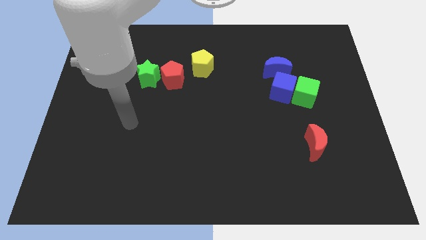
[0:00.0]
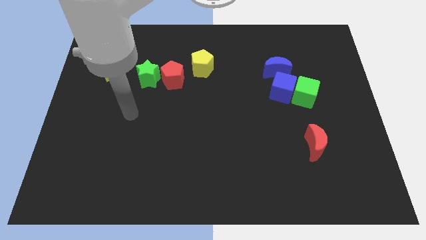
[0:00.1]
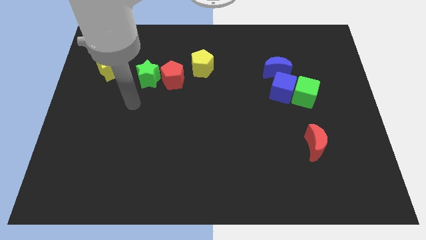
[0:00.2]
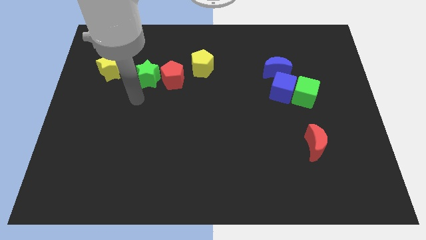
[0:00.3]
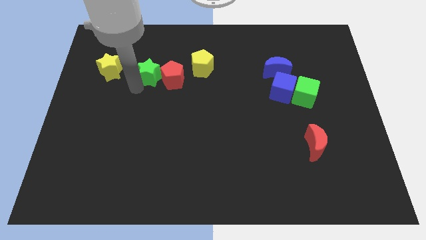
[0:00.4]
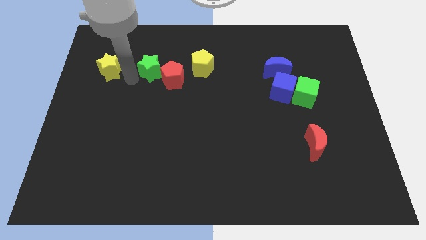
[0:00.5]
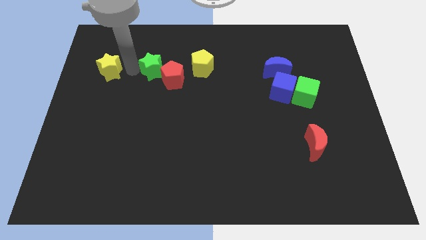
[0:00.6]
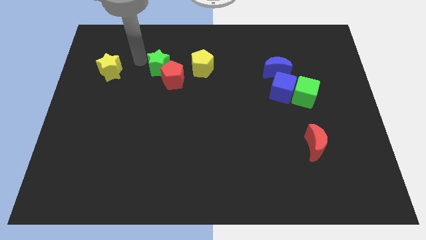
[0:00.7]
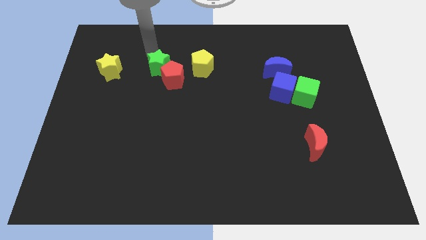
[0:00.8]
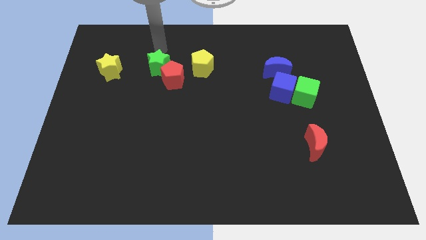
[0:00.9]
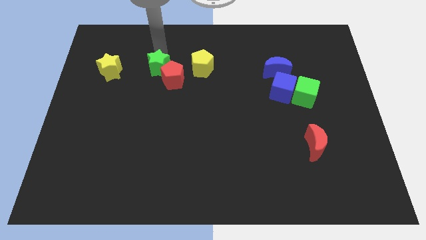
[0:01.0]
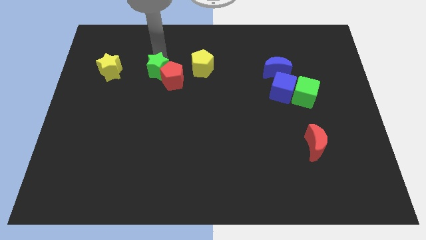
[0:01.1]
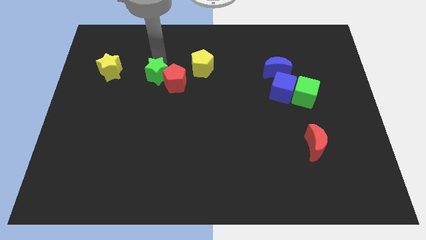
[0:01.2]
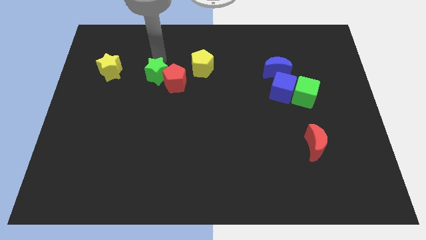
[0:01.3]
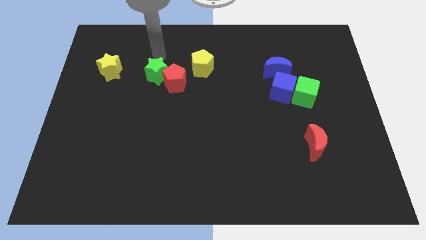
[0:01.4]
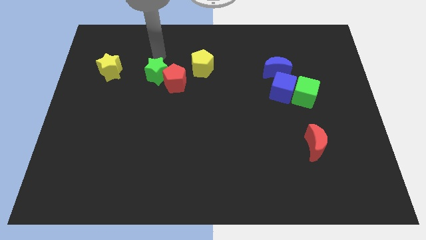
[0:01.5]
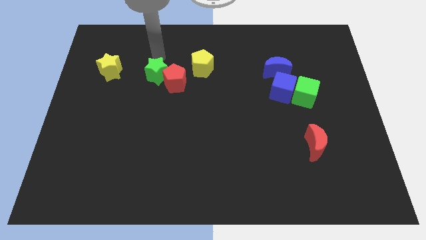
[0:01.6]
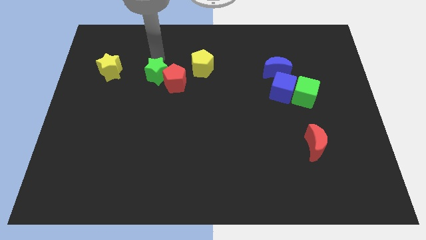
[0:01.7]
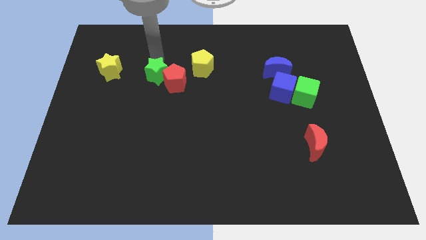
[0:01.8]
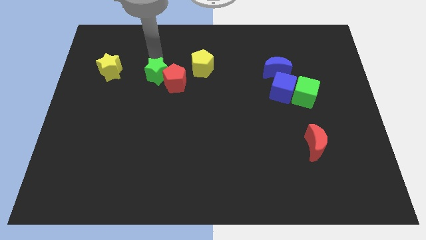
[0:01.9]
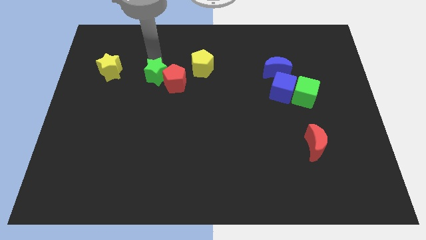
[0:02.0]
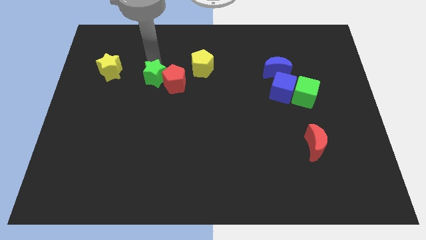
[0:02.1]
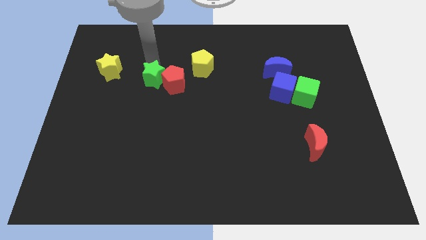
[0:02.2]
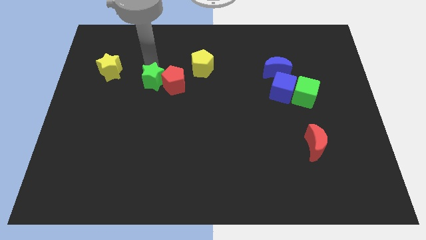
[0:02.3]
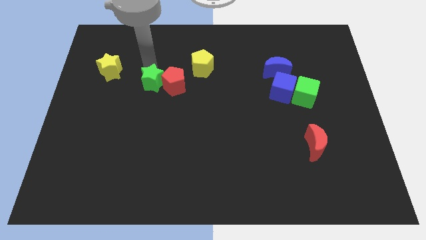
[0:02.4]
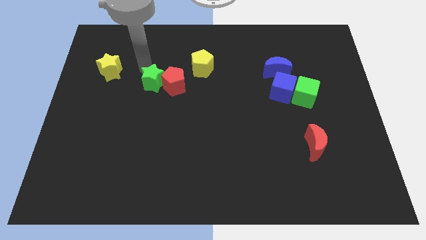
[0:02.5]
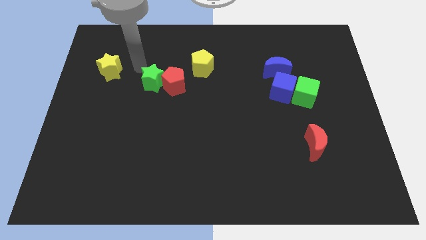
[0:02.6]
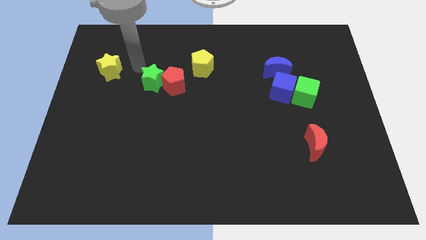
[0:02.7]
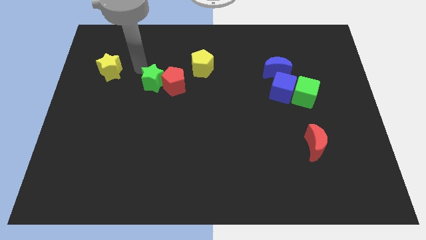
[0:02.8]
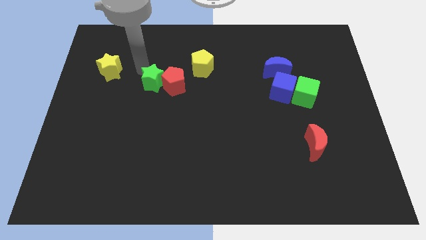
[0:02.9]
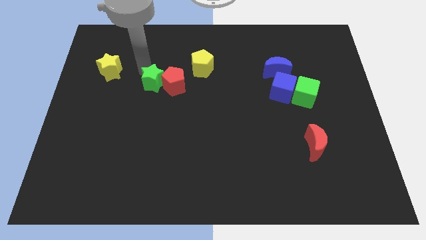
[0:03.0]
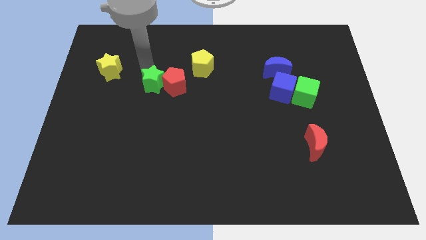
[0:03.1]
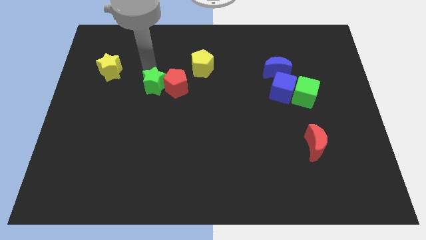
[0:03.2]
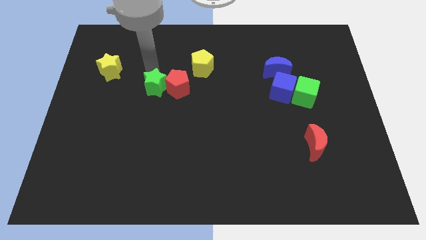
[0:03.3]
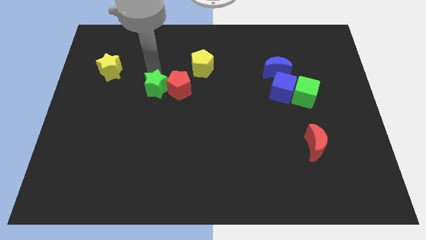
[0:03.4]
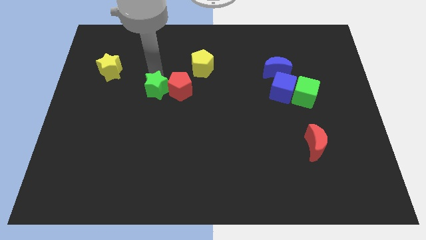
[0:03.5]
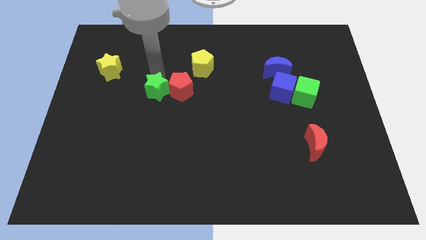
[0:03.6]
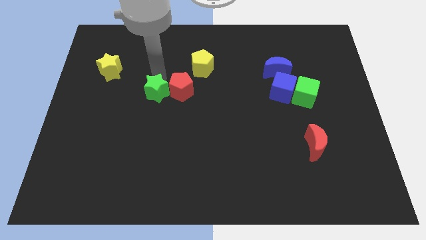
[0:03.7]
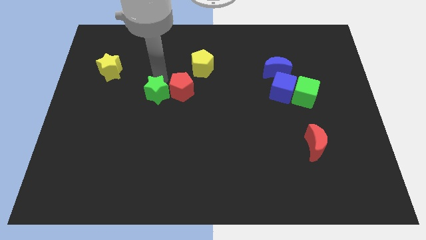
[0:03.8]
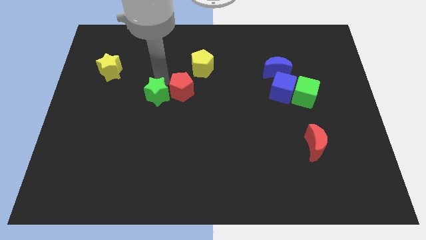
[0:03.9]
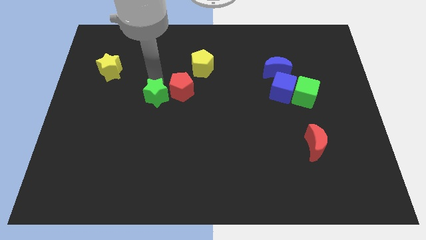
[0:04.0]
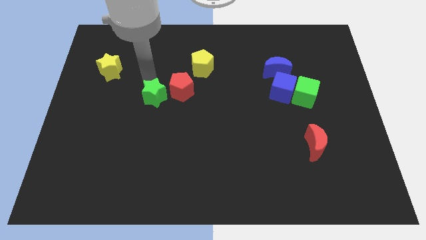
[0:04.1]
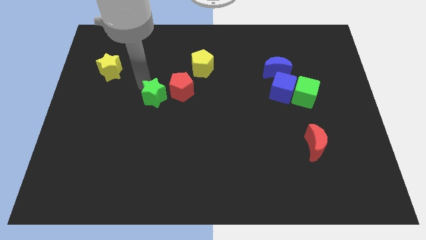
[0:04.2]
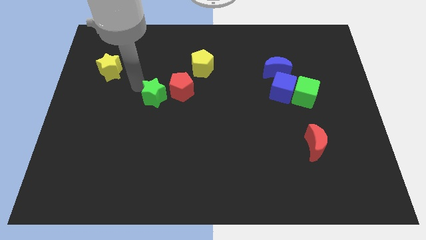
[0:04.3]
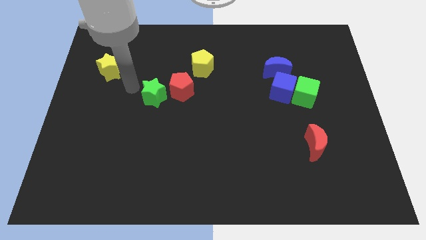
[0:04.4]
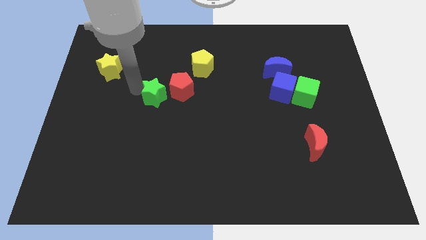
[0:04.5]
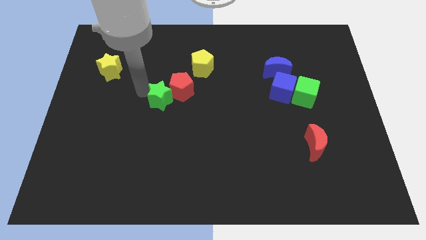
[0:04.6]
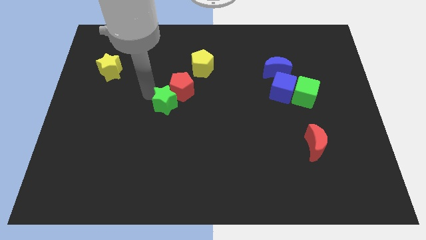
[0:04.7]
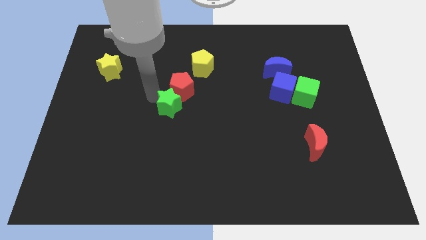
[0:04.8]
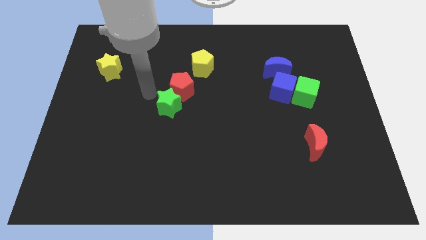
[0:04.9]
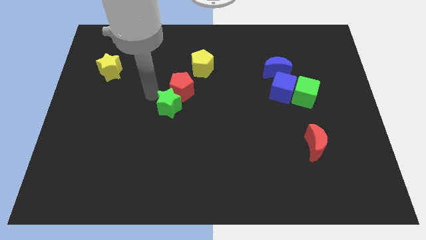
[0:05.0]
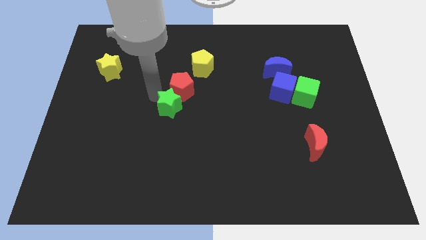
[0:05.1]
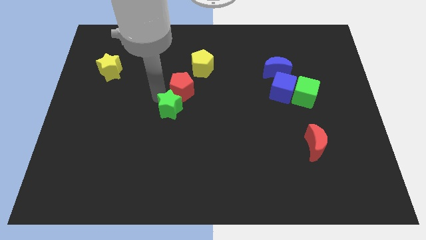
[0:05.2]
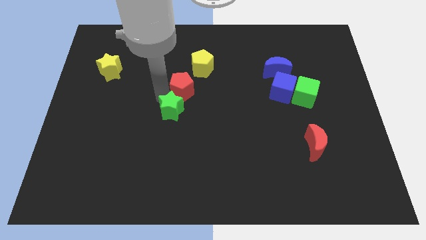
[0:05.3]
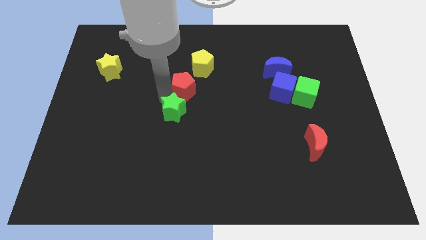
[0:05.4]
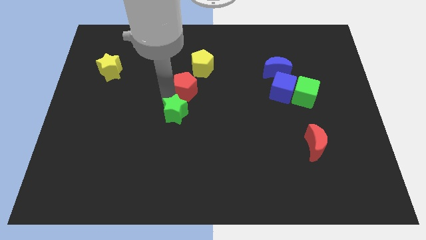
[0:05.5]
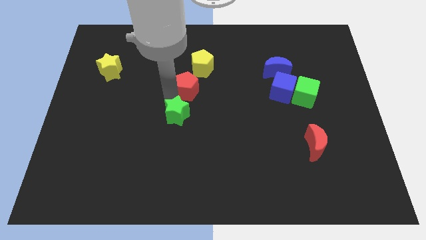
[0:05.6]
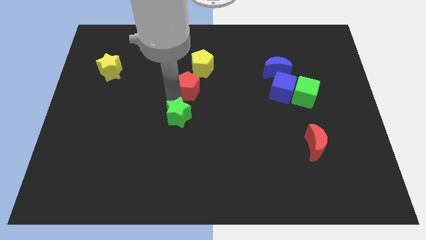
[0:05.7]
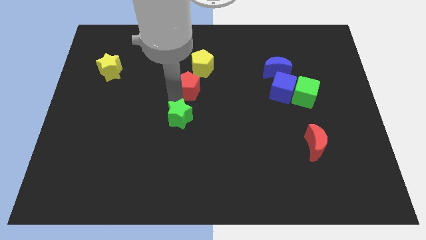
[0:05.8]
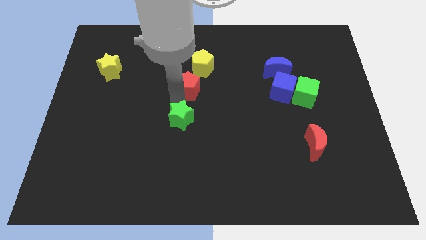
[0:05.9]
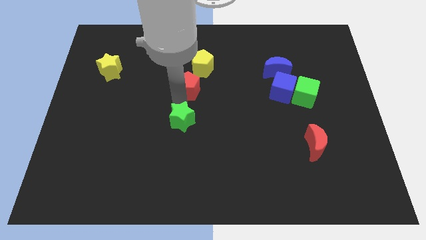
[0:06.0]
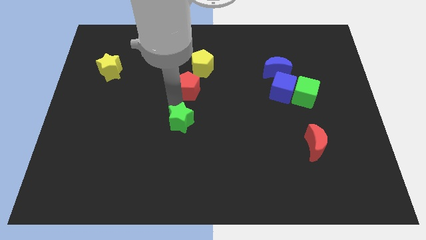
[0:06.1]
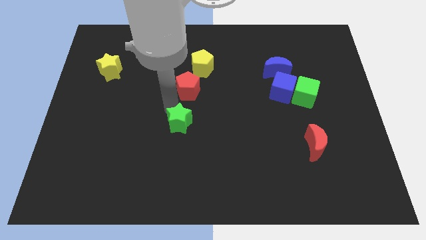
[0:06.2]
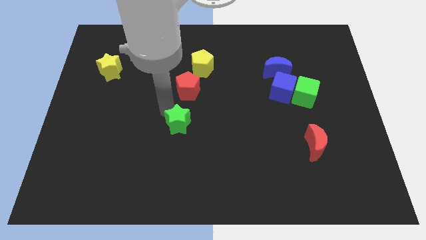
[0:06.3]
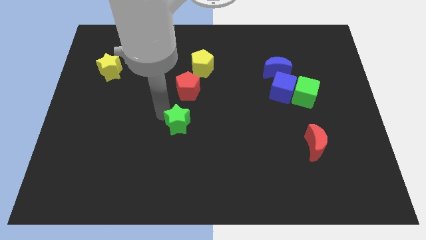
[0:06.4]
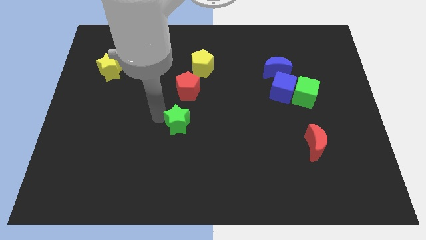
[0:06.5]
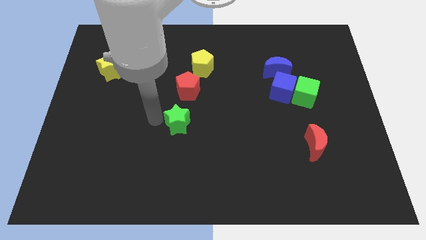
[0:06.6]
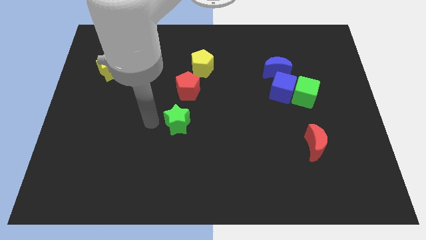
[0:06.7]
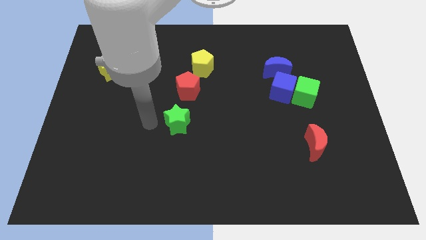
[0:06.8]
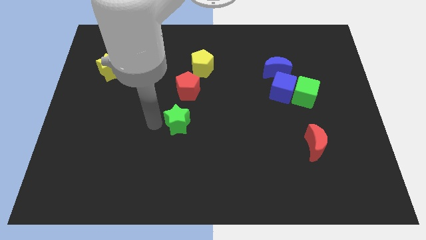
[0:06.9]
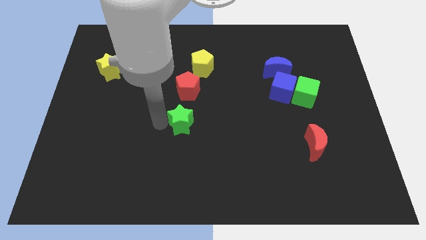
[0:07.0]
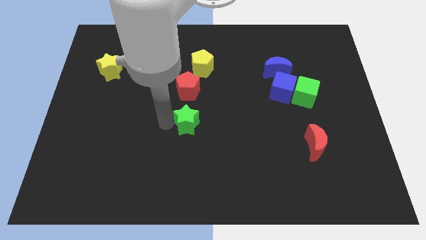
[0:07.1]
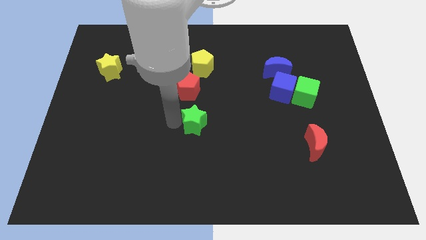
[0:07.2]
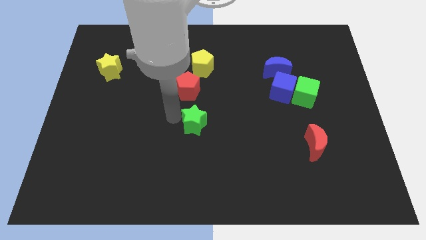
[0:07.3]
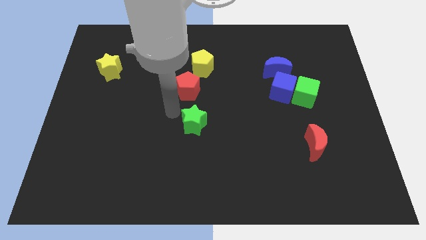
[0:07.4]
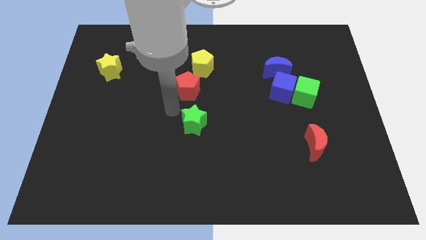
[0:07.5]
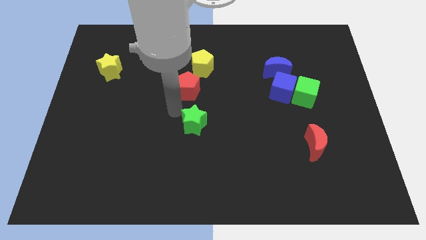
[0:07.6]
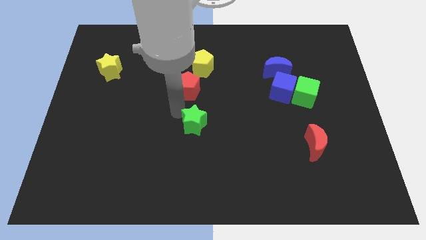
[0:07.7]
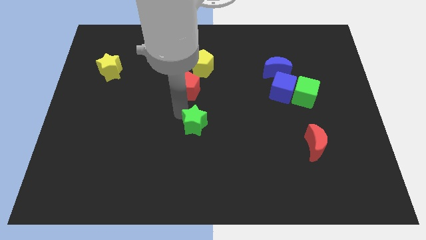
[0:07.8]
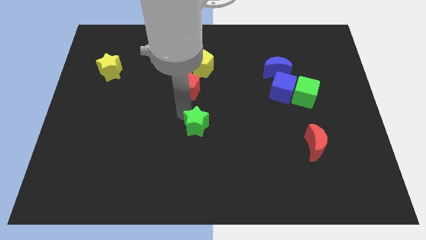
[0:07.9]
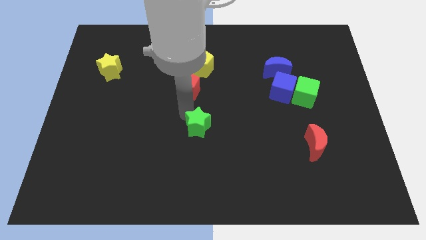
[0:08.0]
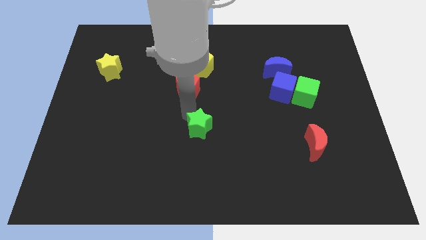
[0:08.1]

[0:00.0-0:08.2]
move the green star diagonally down and to the right
